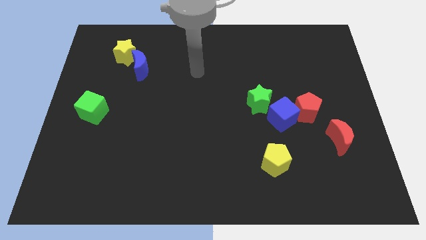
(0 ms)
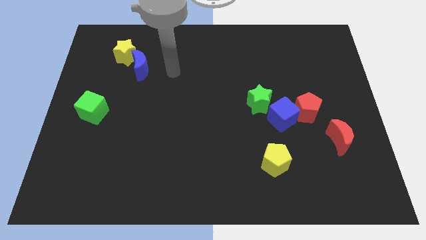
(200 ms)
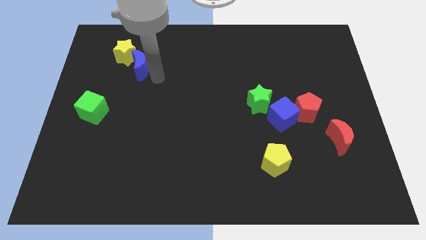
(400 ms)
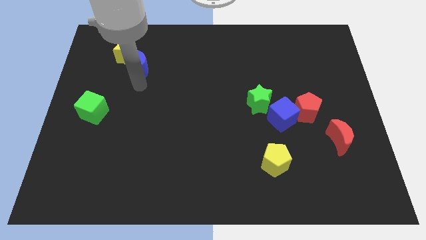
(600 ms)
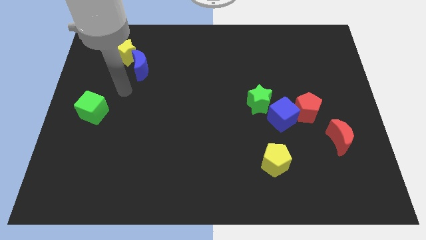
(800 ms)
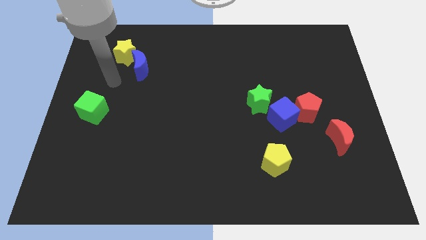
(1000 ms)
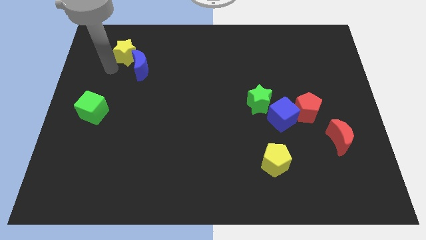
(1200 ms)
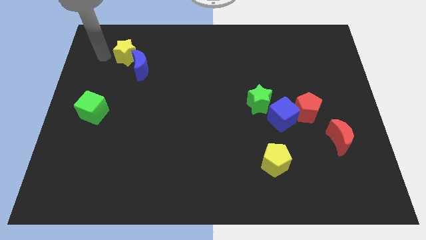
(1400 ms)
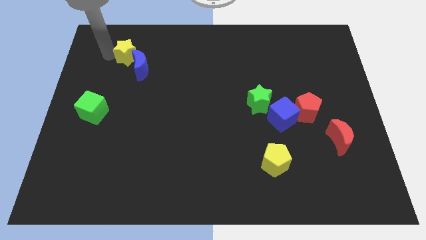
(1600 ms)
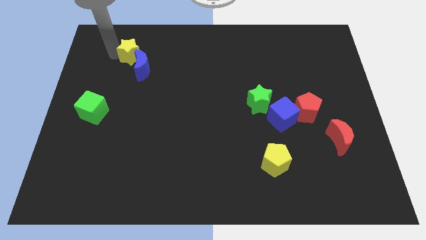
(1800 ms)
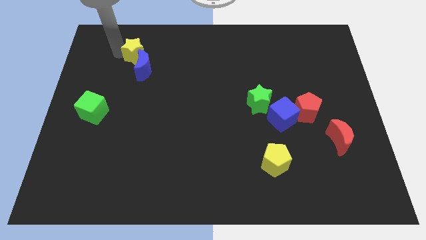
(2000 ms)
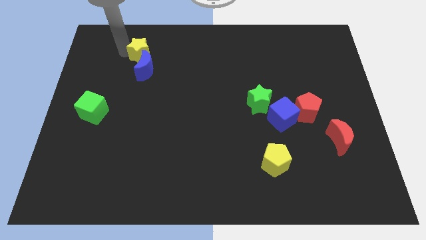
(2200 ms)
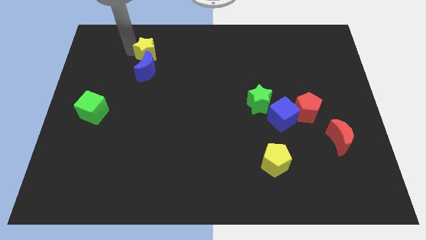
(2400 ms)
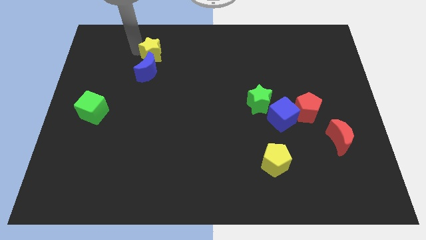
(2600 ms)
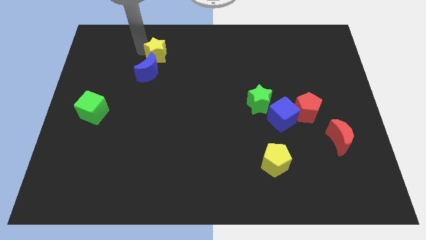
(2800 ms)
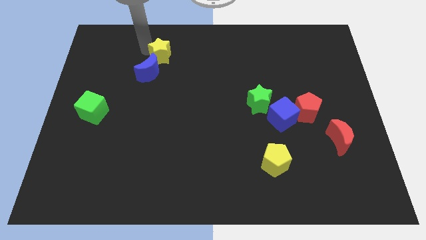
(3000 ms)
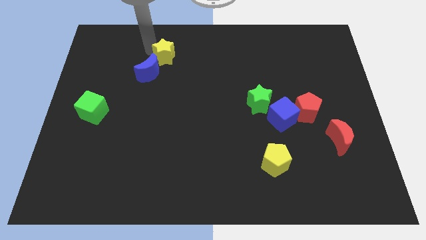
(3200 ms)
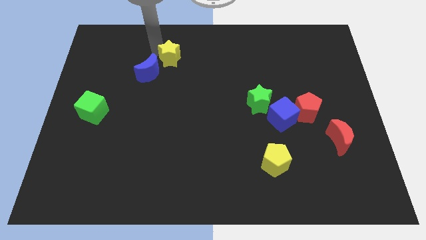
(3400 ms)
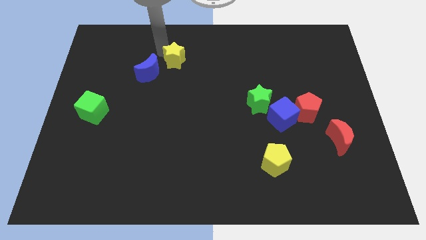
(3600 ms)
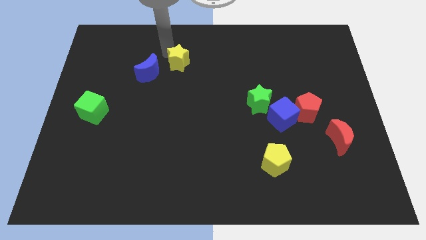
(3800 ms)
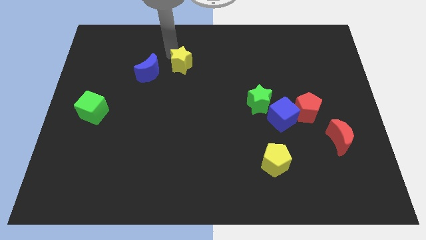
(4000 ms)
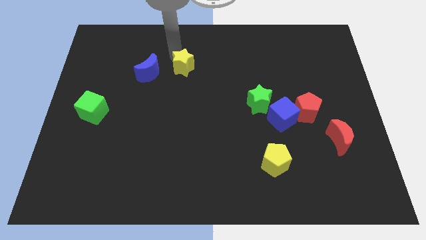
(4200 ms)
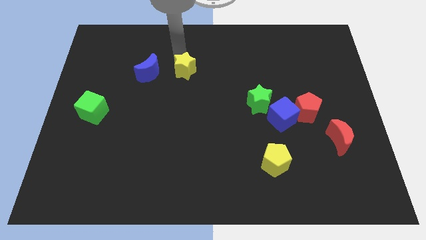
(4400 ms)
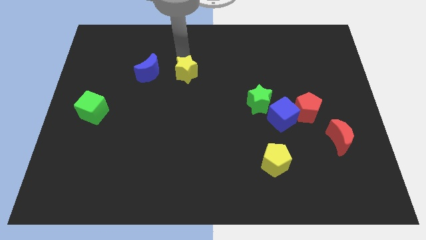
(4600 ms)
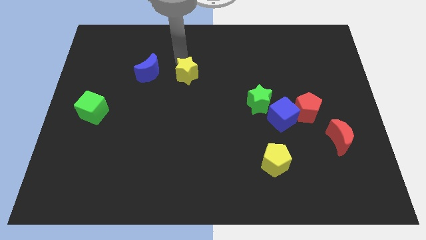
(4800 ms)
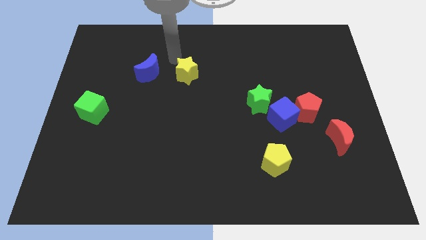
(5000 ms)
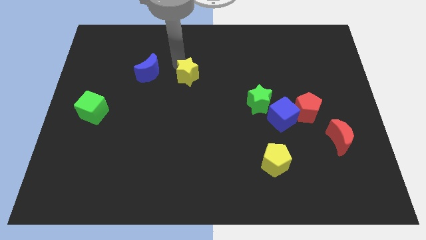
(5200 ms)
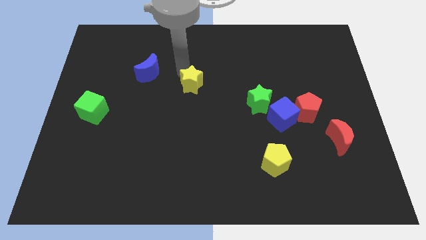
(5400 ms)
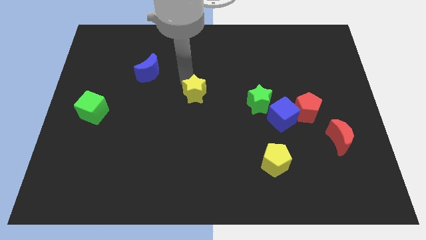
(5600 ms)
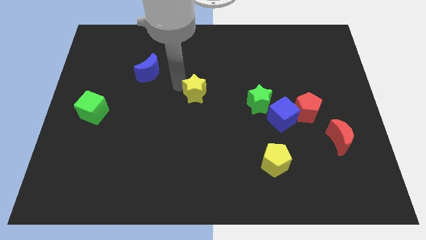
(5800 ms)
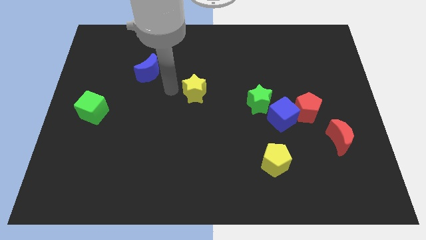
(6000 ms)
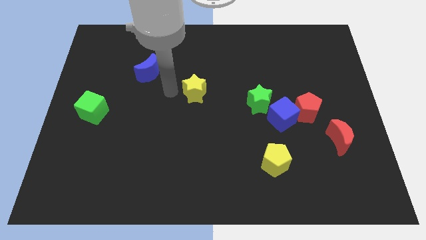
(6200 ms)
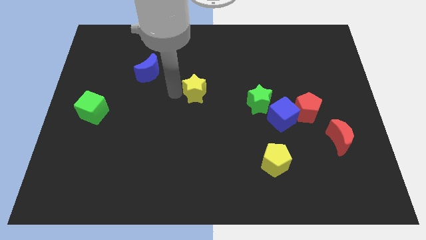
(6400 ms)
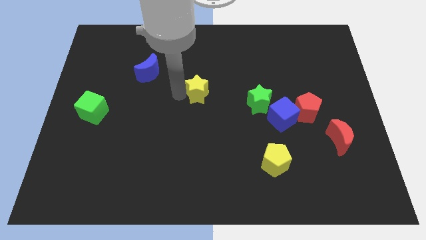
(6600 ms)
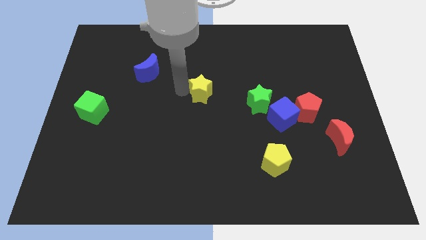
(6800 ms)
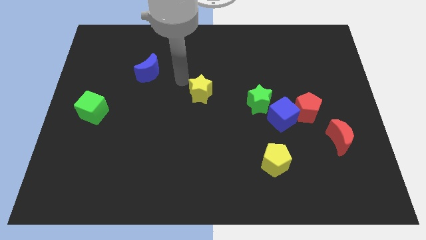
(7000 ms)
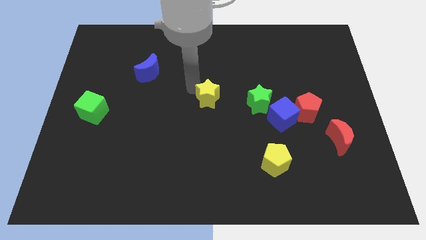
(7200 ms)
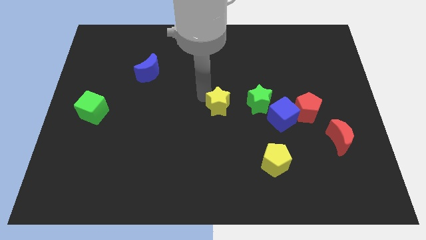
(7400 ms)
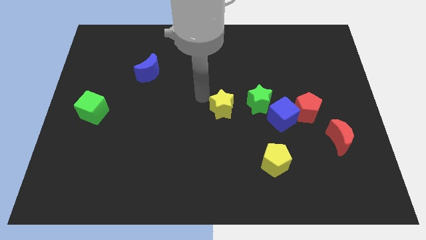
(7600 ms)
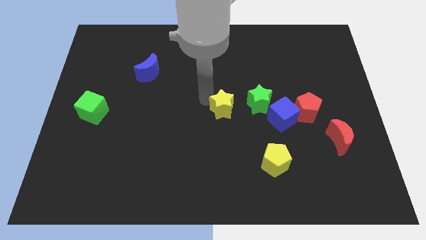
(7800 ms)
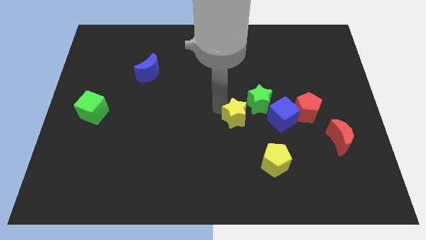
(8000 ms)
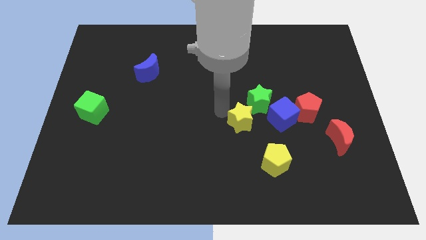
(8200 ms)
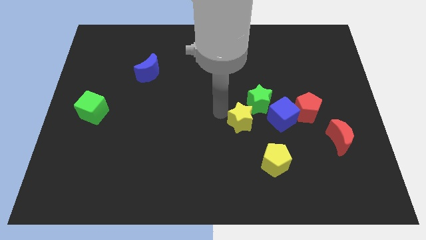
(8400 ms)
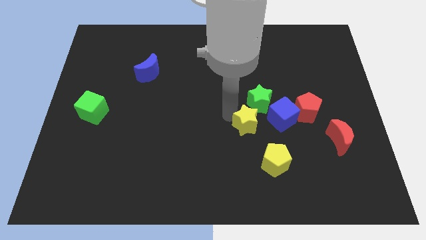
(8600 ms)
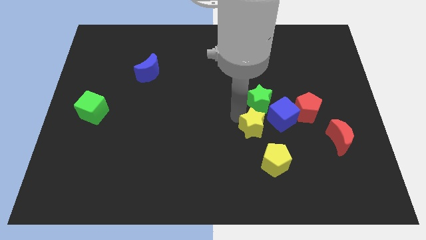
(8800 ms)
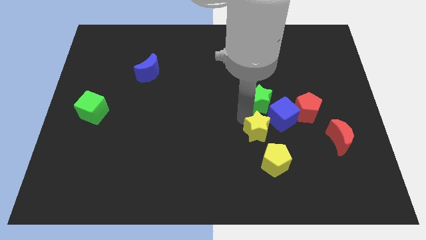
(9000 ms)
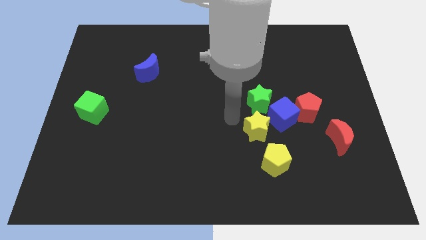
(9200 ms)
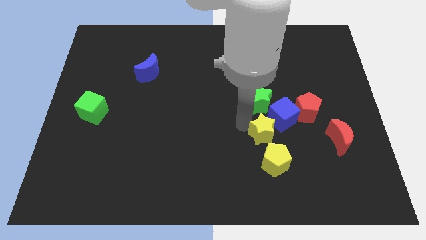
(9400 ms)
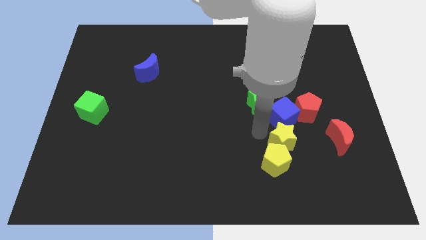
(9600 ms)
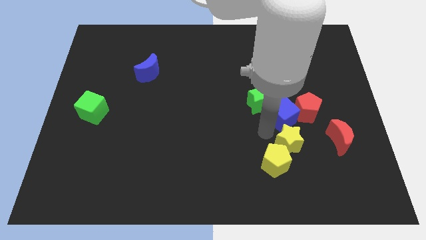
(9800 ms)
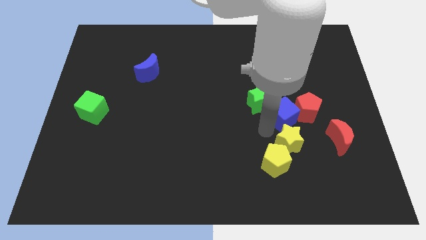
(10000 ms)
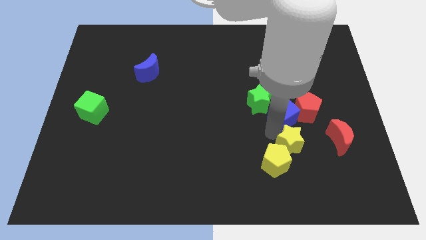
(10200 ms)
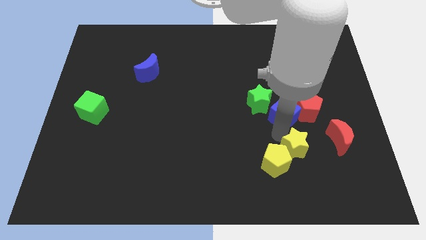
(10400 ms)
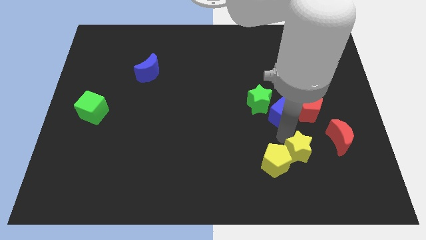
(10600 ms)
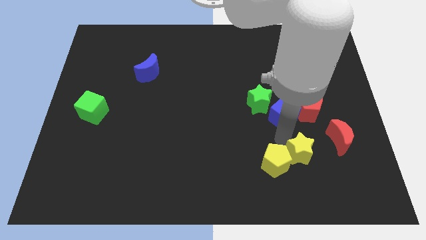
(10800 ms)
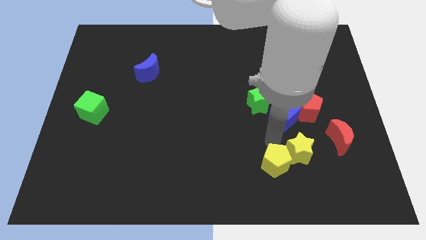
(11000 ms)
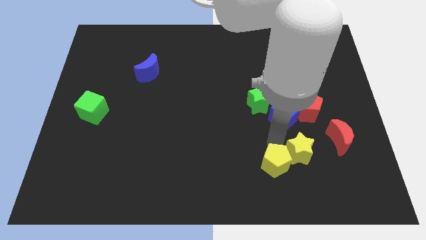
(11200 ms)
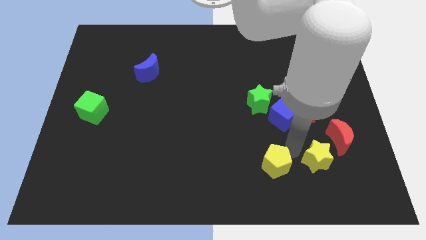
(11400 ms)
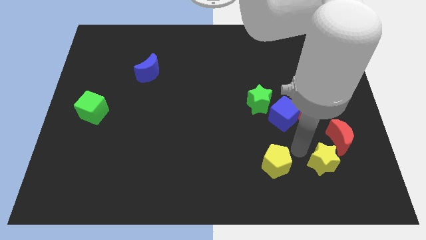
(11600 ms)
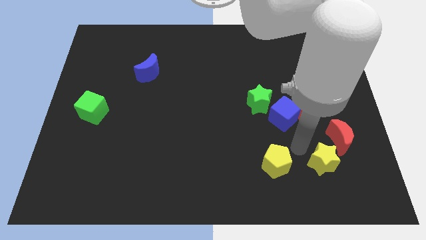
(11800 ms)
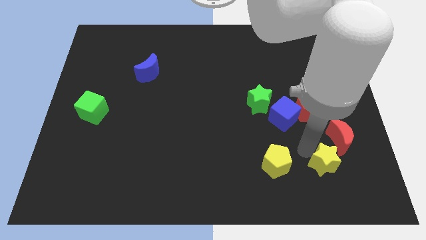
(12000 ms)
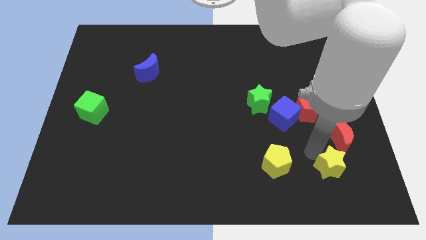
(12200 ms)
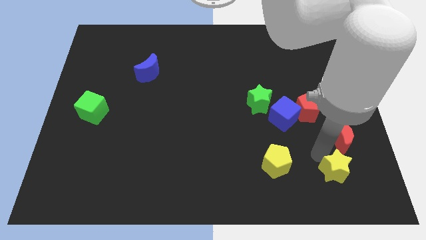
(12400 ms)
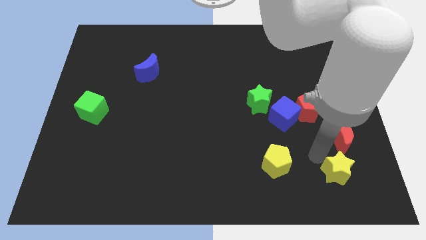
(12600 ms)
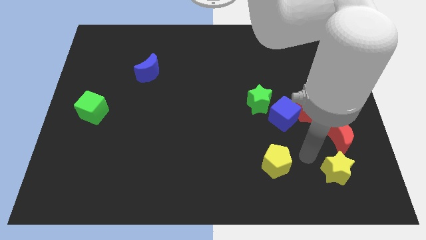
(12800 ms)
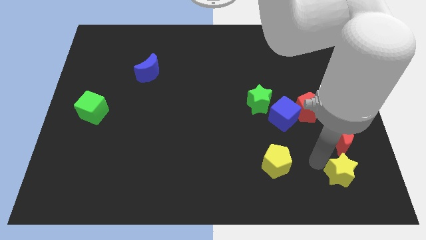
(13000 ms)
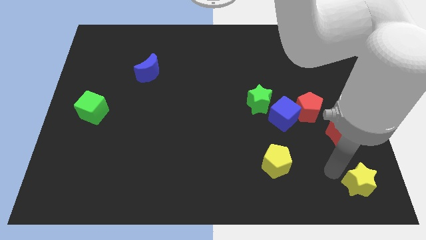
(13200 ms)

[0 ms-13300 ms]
put the yellow star to the bottom right of the board
